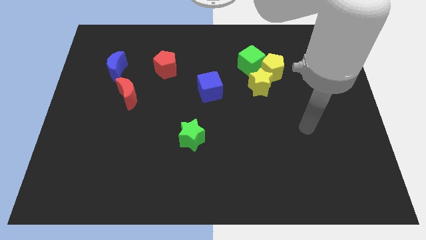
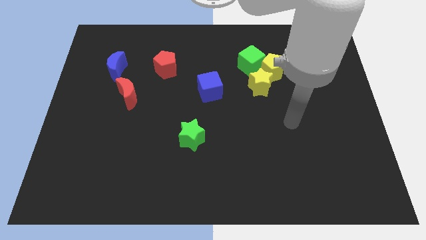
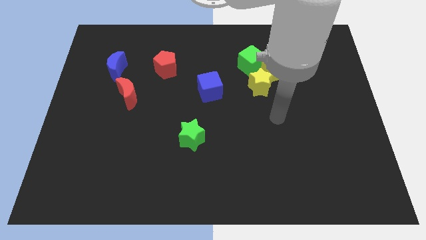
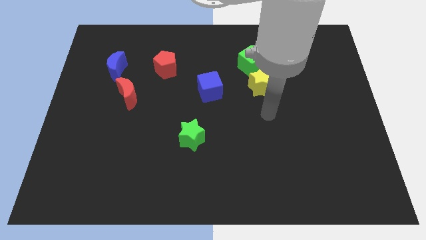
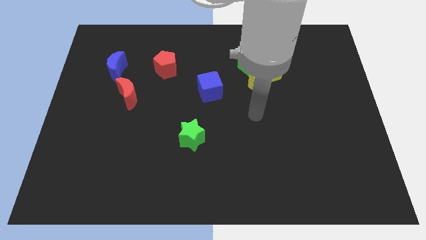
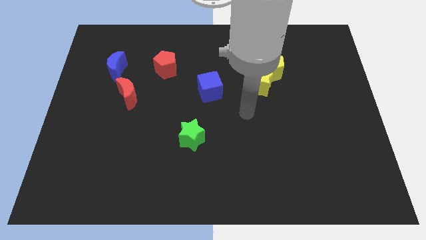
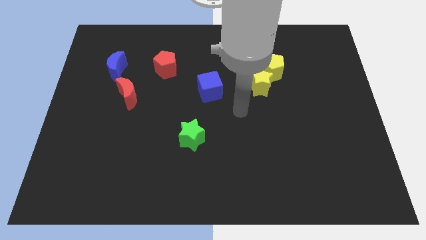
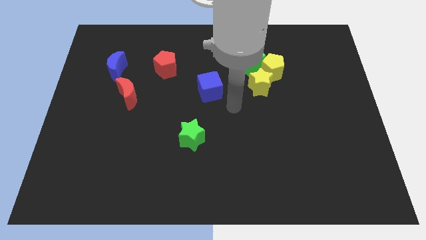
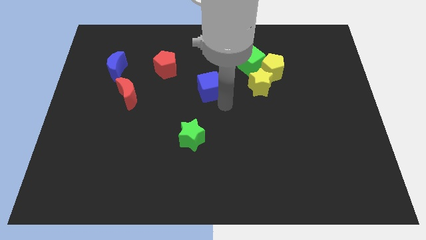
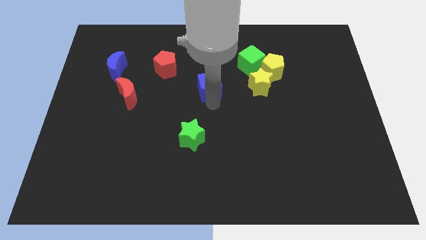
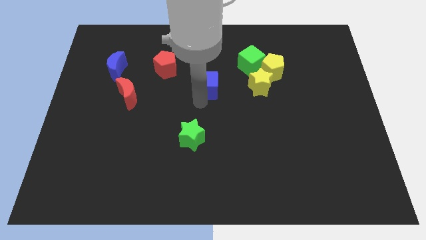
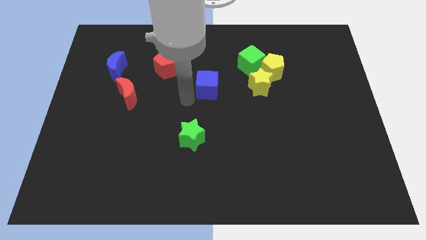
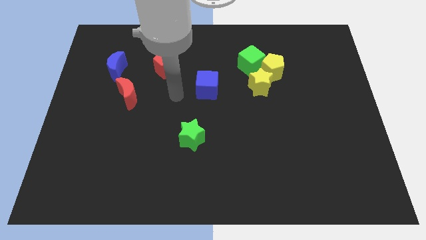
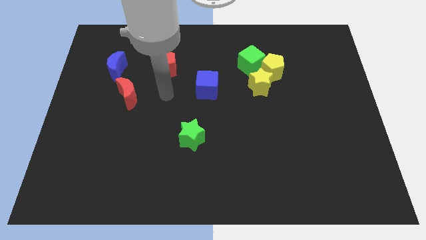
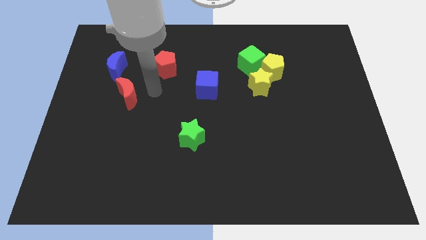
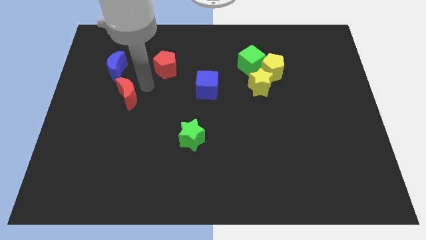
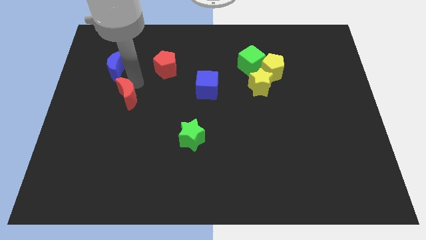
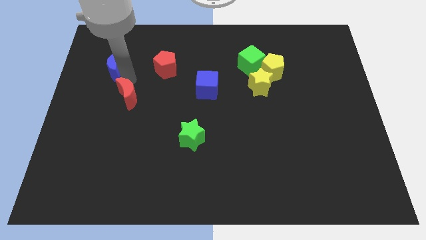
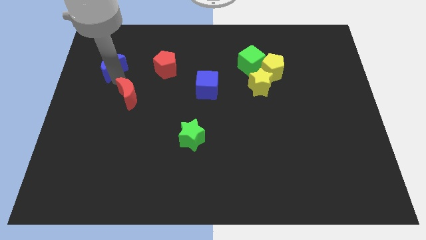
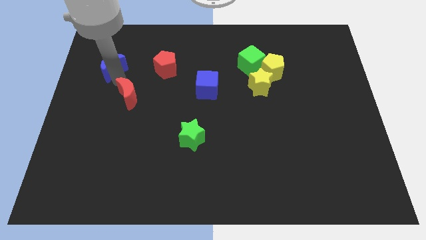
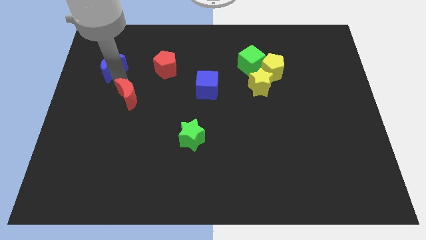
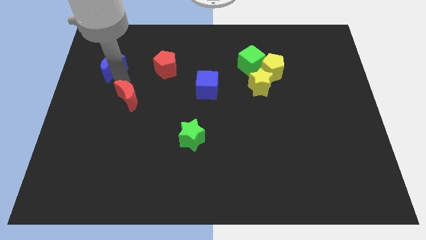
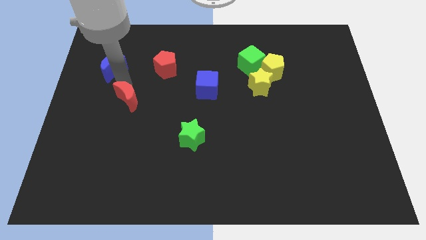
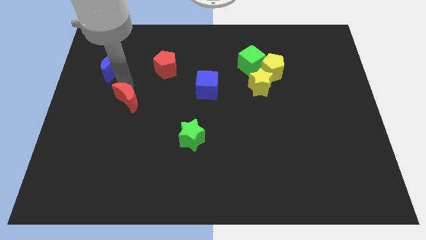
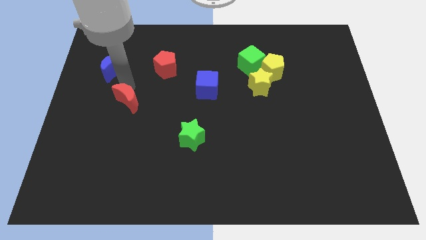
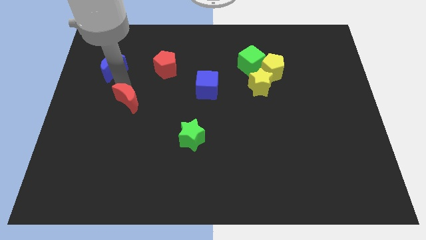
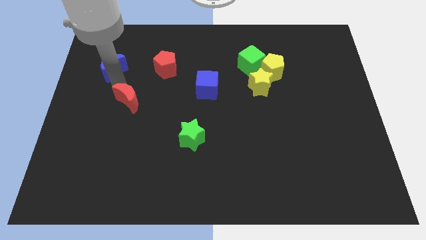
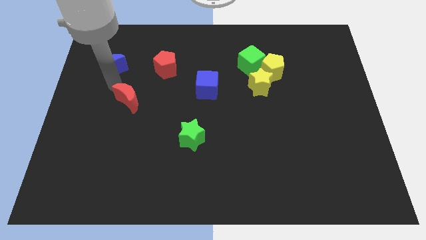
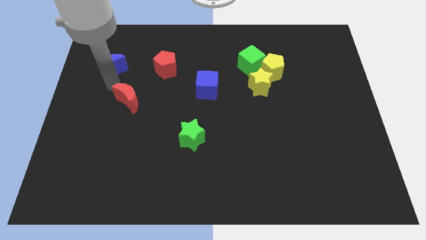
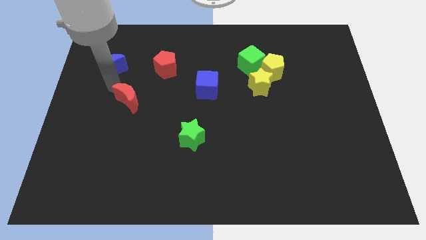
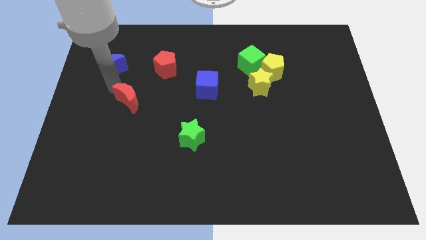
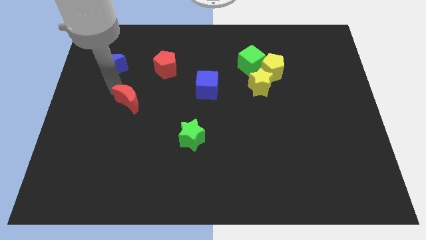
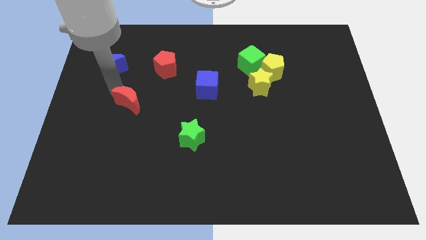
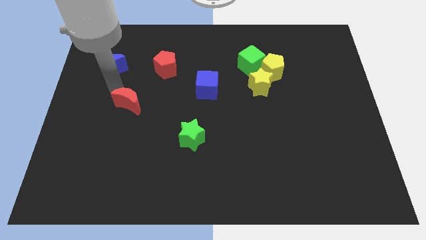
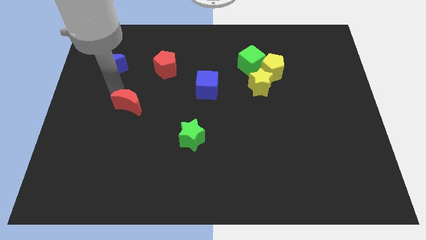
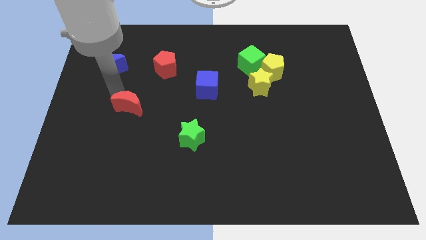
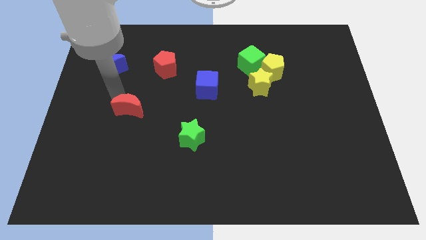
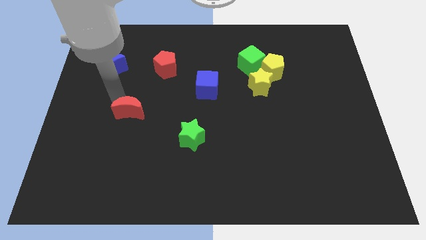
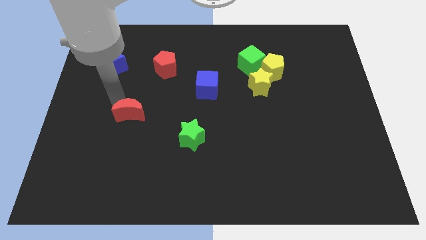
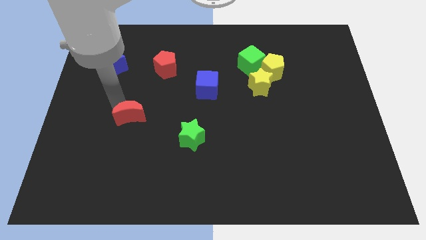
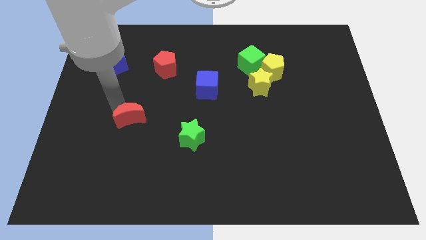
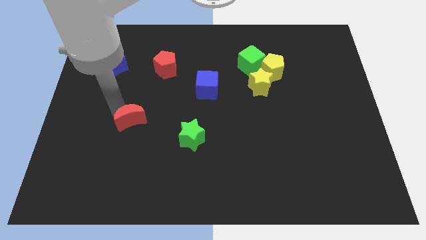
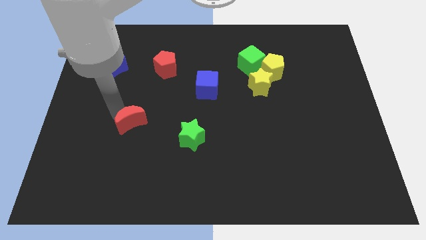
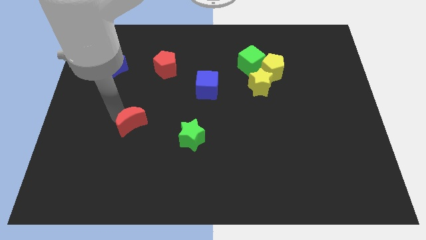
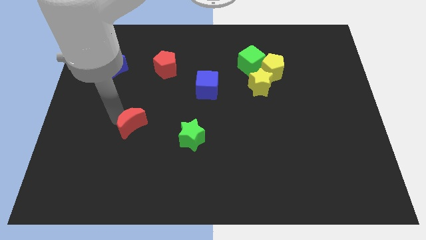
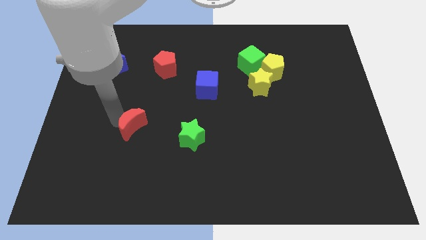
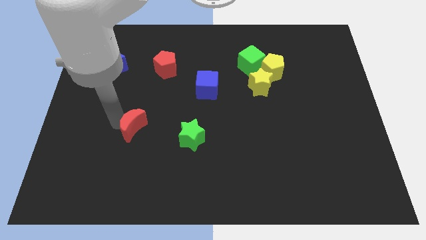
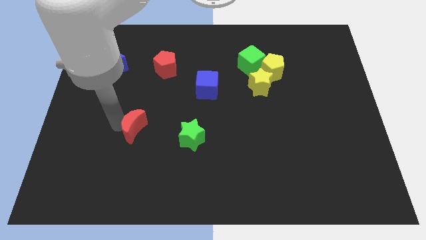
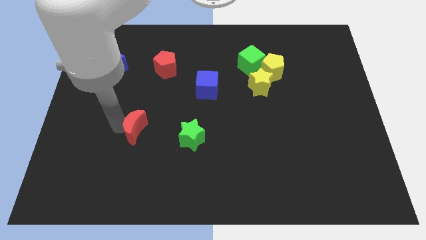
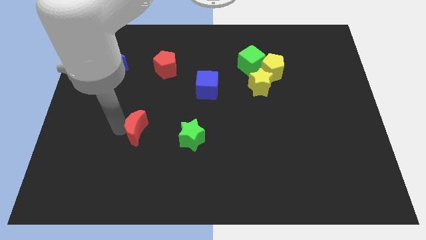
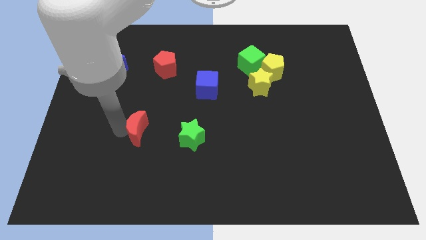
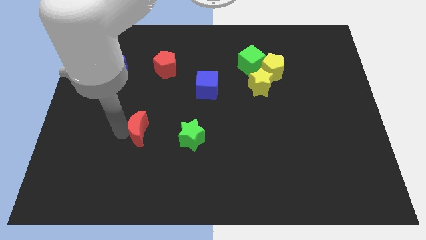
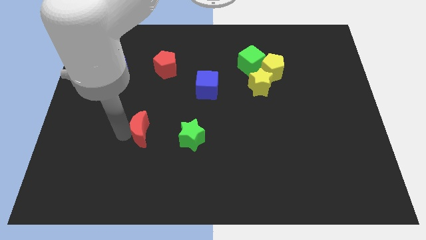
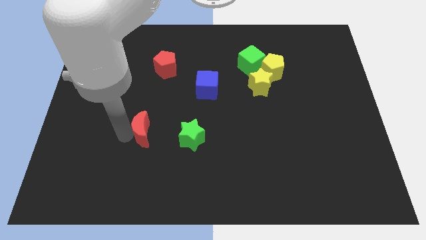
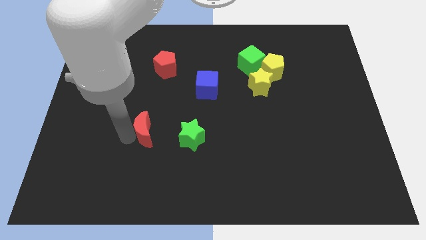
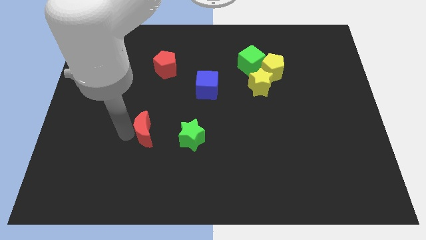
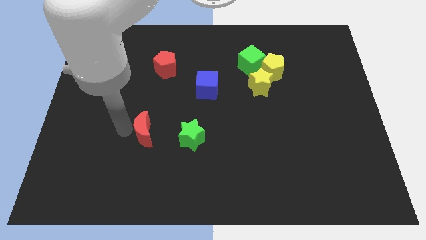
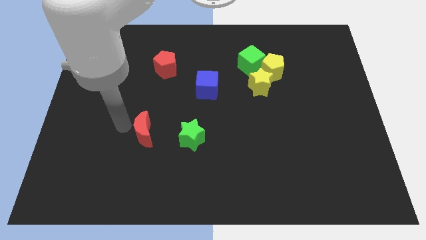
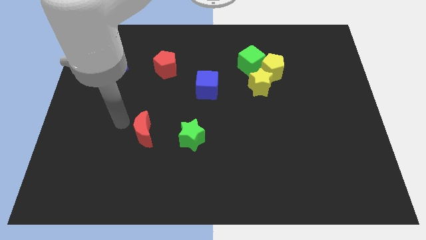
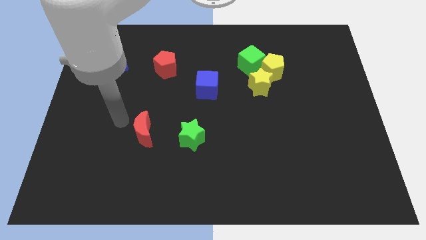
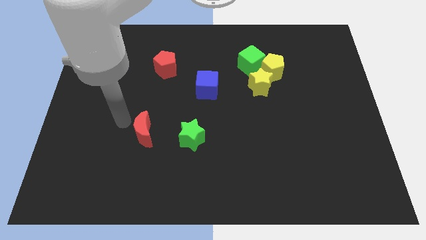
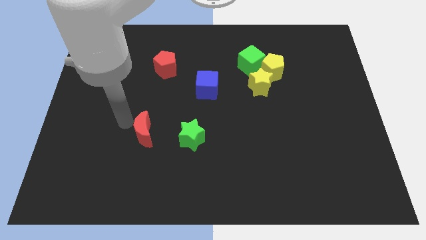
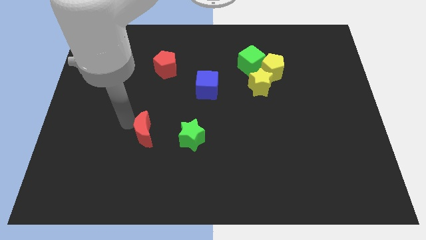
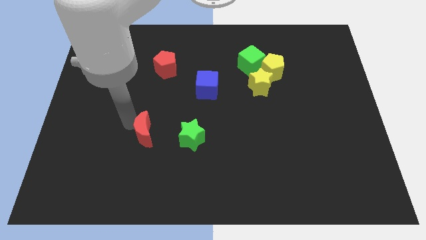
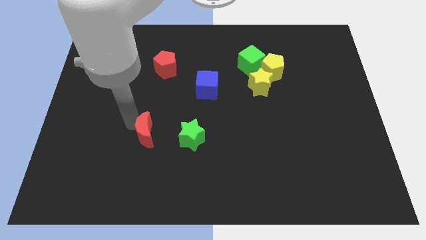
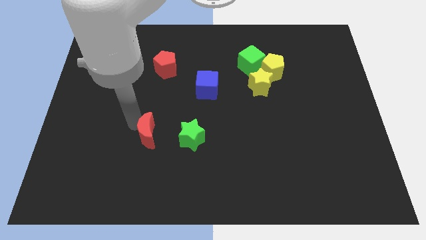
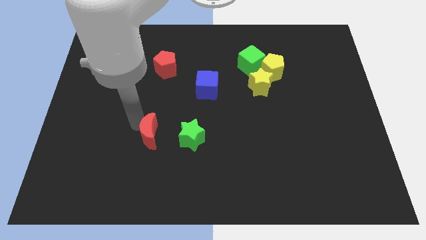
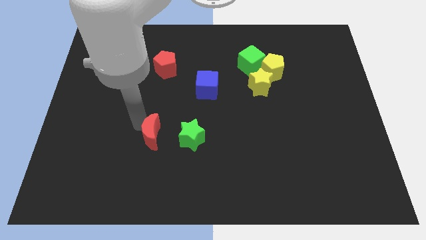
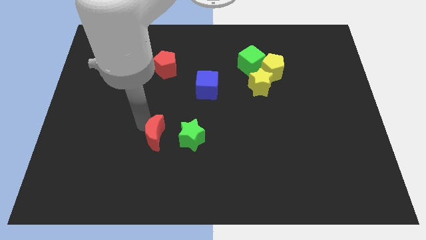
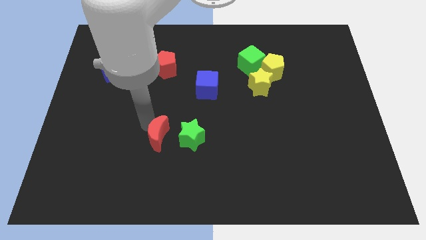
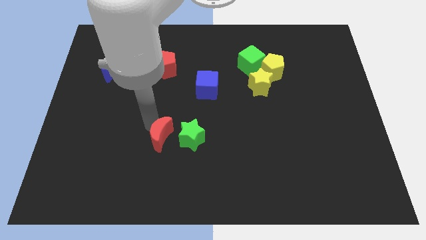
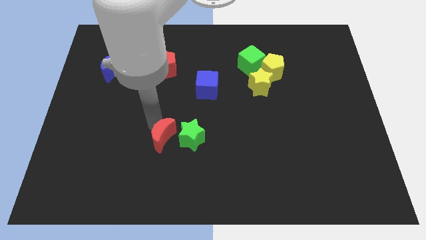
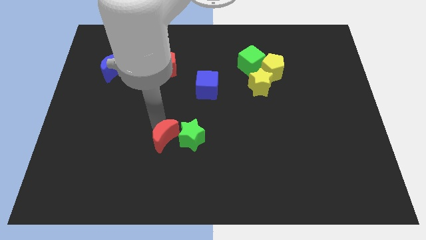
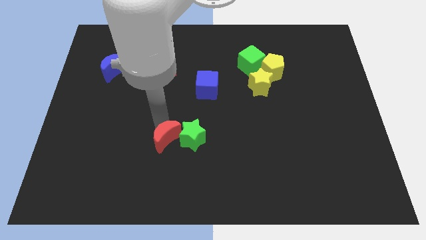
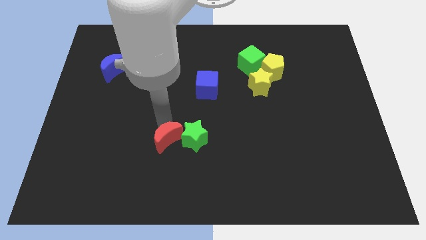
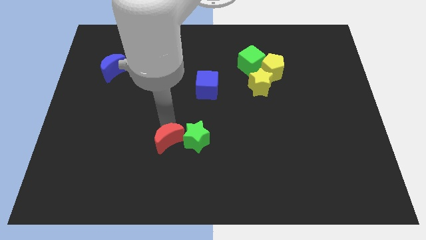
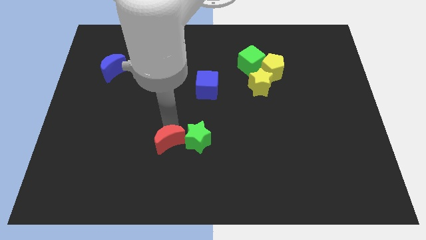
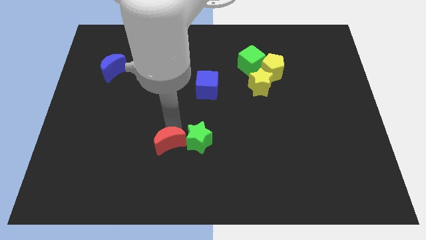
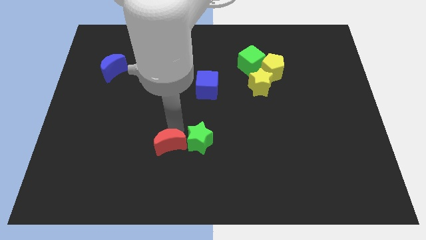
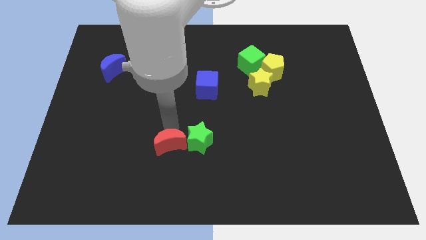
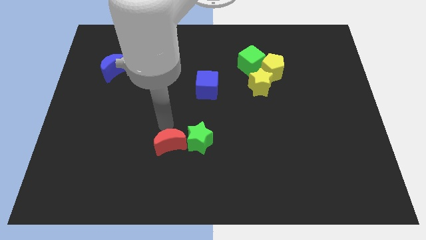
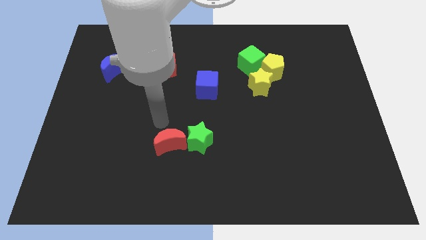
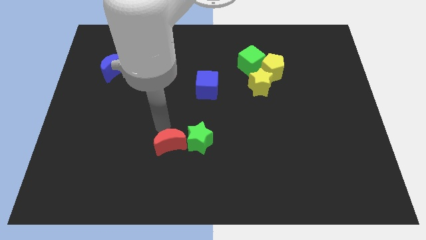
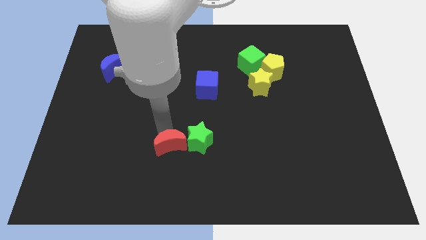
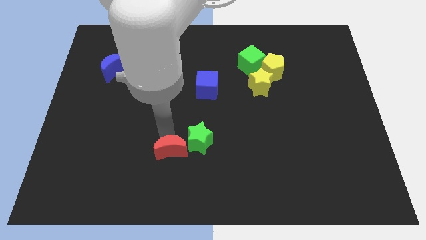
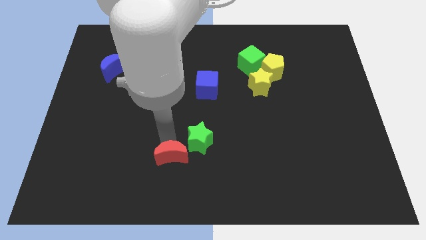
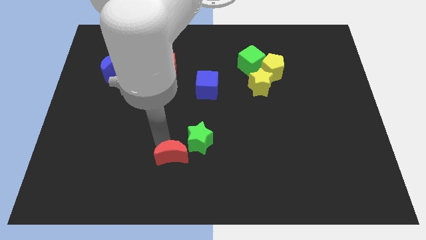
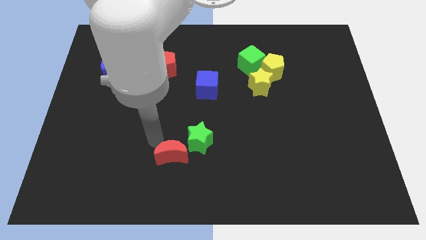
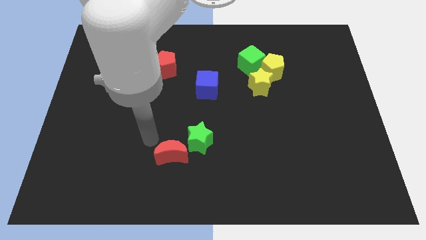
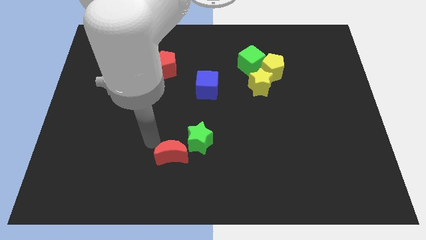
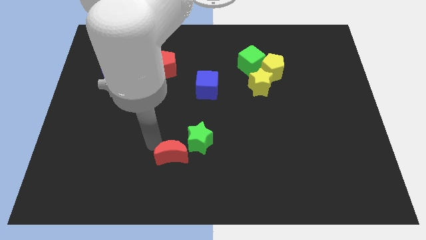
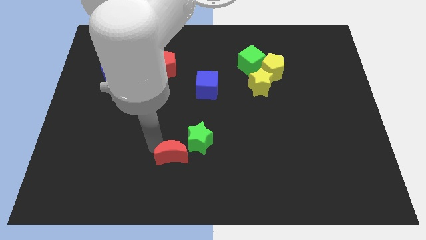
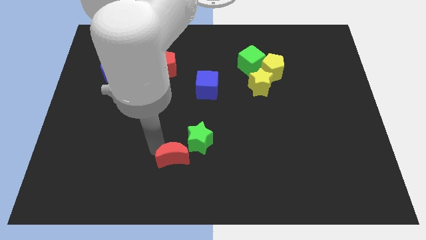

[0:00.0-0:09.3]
move the red moon down and to the right
